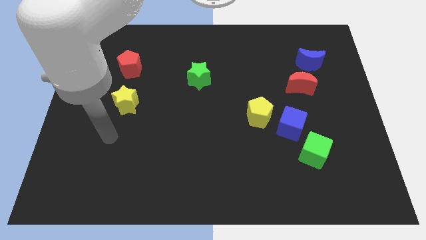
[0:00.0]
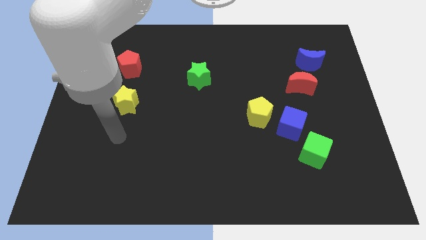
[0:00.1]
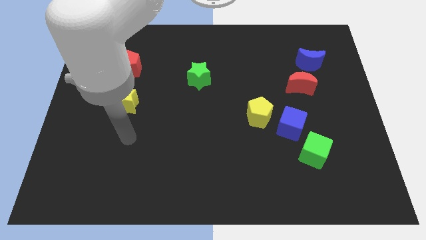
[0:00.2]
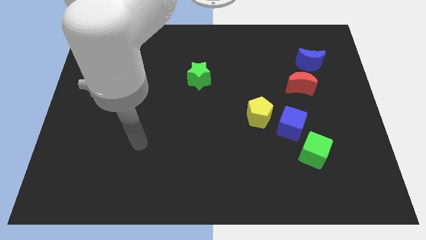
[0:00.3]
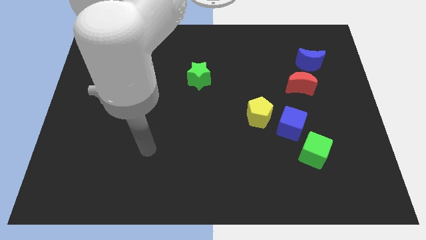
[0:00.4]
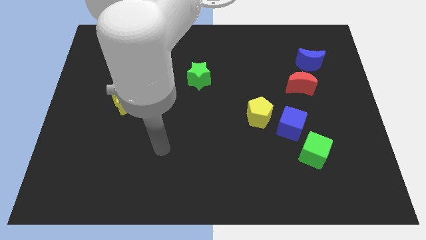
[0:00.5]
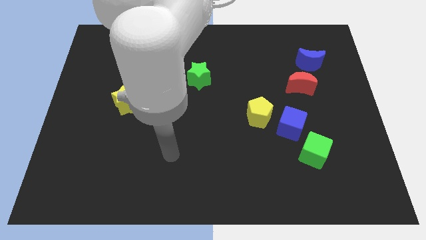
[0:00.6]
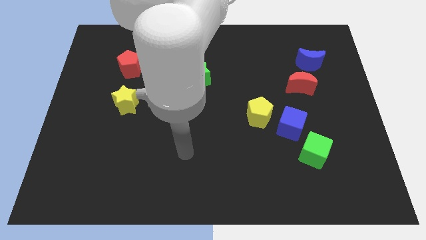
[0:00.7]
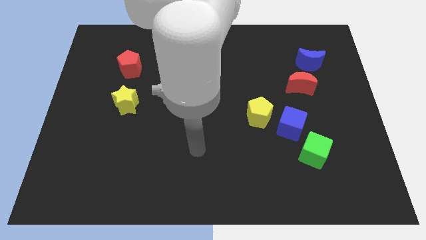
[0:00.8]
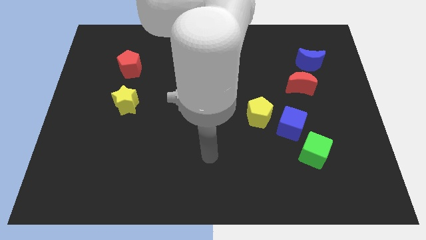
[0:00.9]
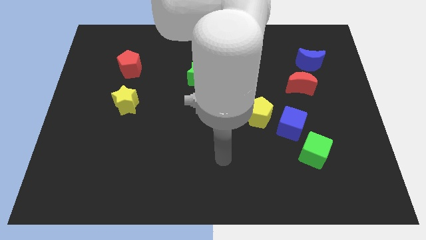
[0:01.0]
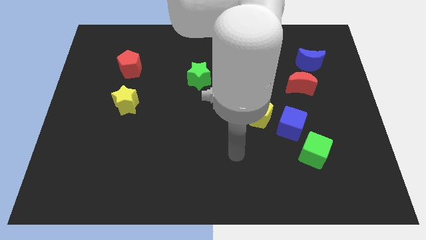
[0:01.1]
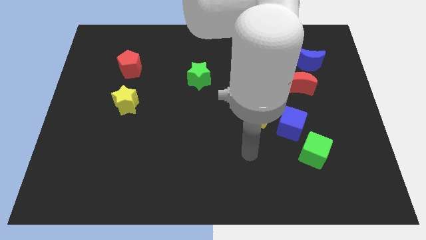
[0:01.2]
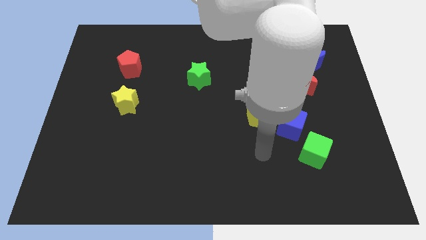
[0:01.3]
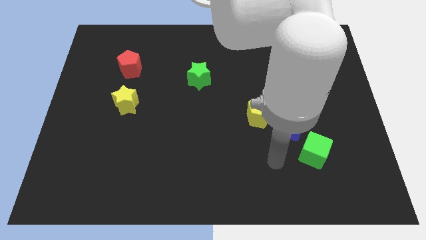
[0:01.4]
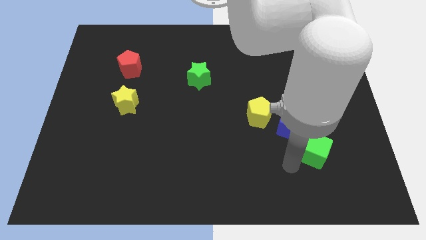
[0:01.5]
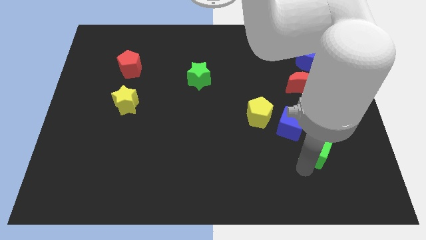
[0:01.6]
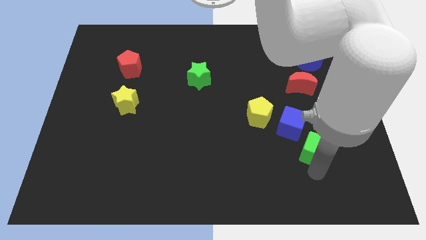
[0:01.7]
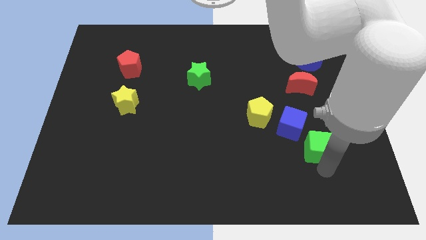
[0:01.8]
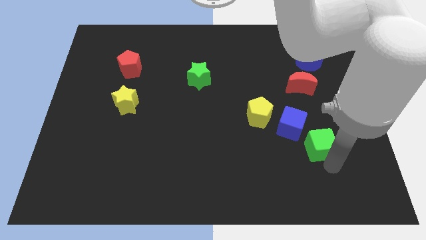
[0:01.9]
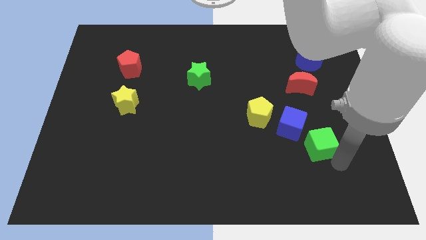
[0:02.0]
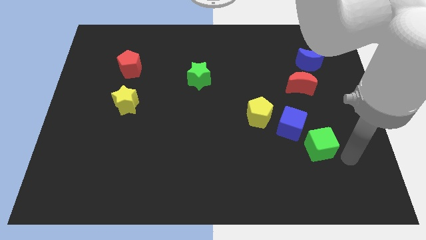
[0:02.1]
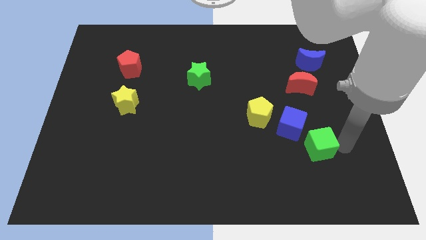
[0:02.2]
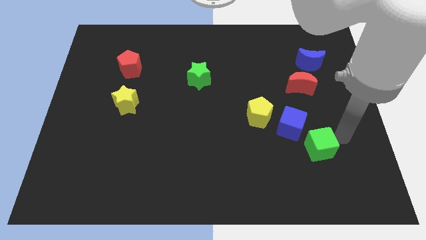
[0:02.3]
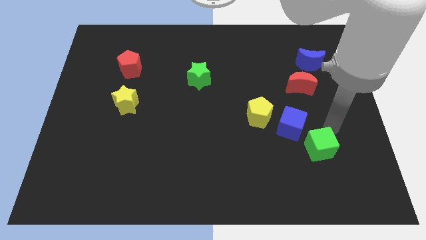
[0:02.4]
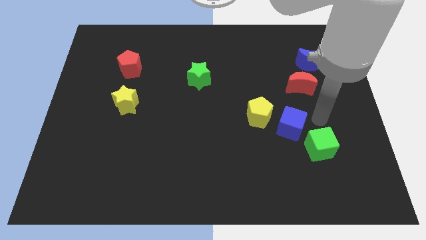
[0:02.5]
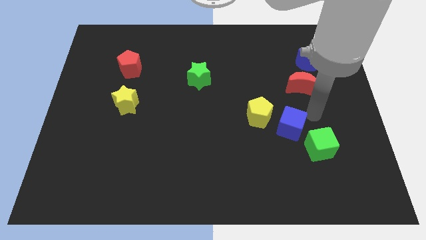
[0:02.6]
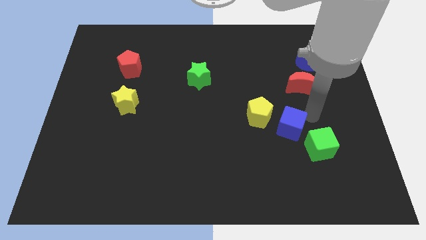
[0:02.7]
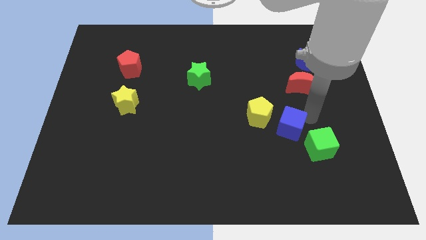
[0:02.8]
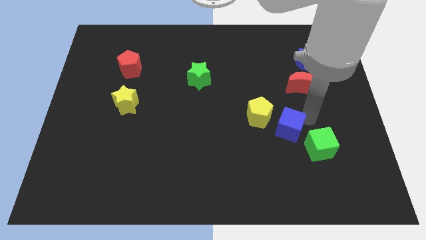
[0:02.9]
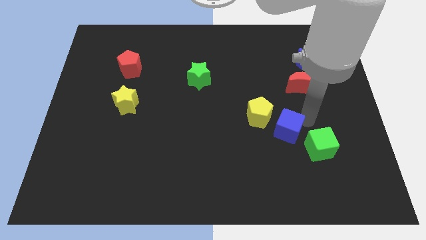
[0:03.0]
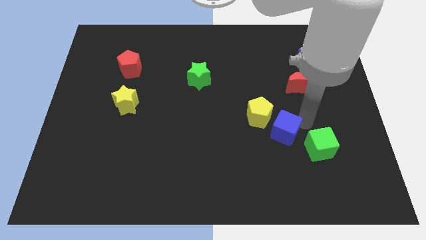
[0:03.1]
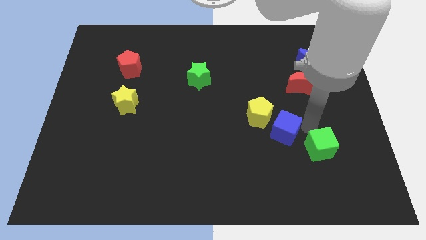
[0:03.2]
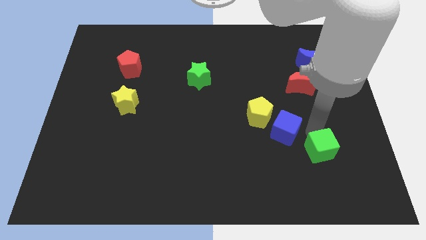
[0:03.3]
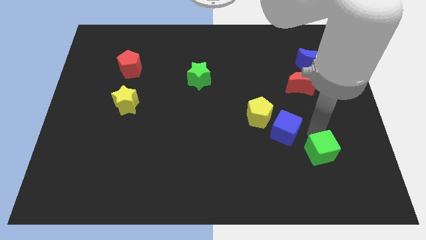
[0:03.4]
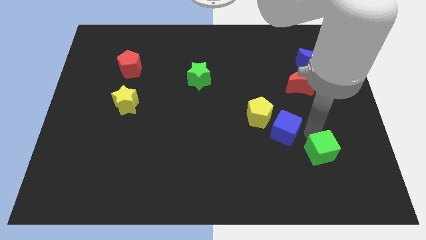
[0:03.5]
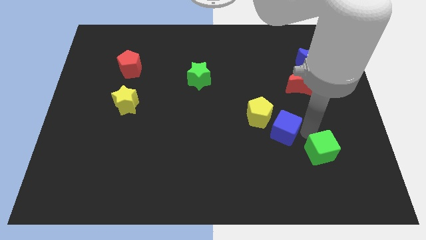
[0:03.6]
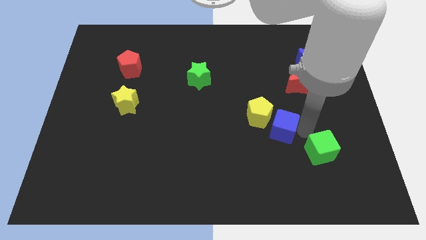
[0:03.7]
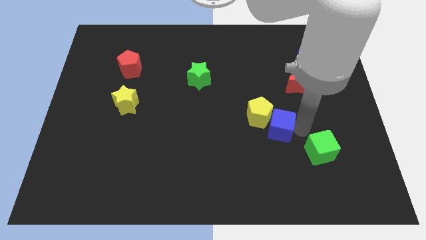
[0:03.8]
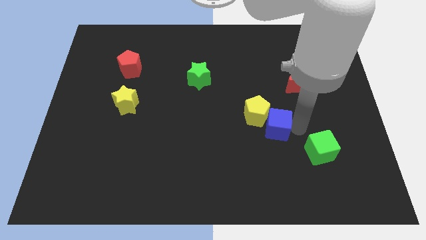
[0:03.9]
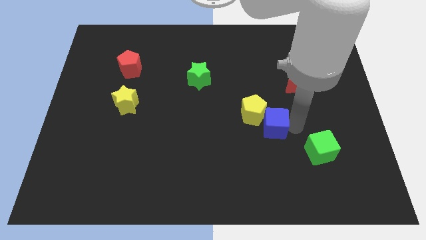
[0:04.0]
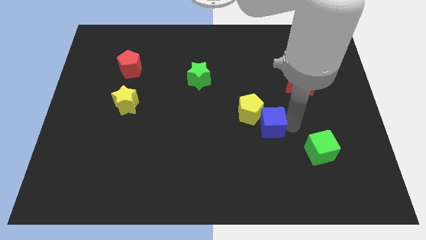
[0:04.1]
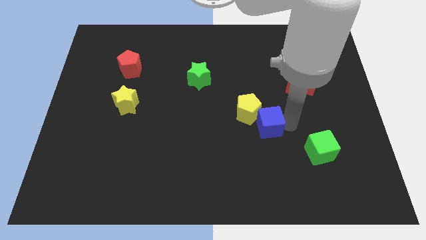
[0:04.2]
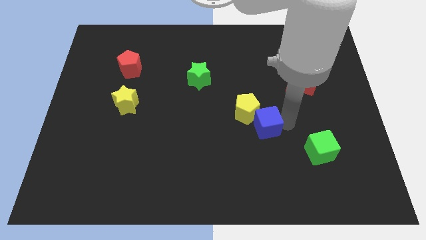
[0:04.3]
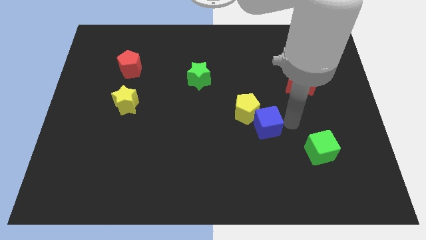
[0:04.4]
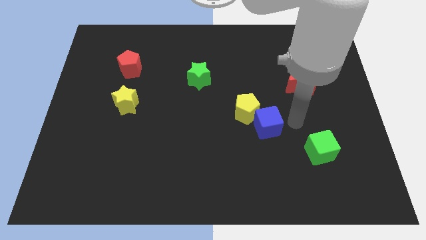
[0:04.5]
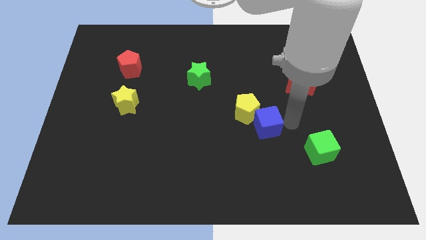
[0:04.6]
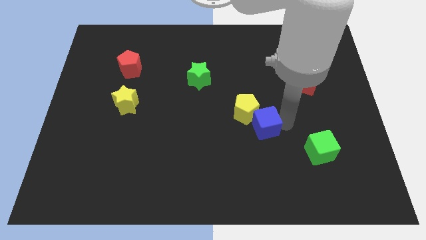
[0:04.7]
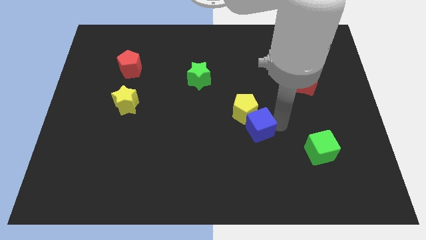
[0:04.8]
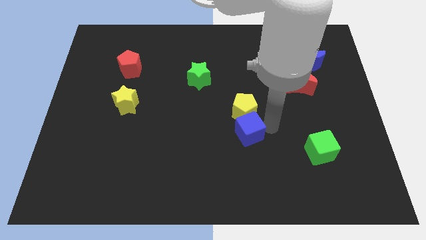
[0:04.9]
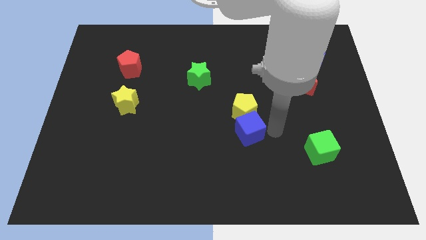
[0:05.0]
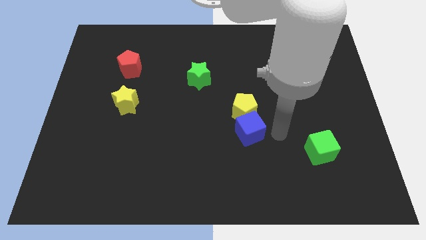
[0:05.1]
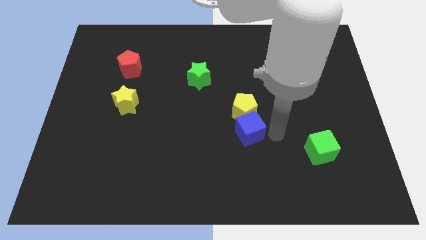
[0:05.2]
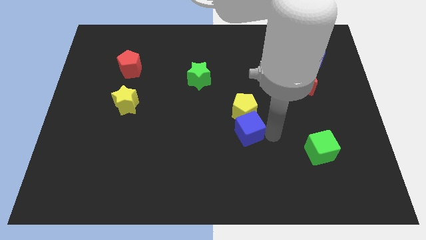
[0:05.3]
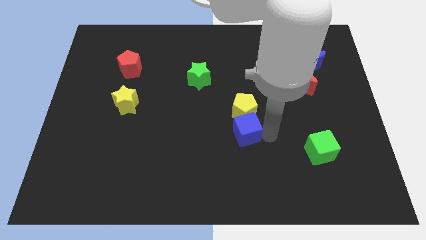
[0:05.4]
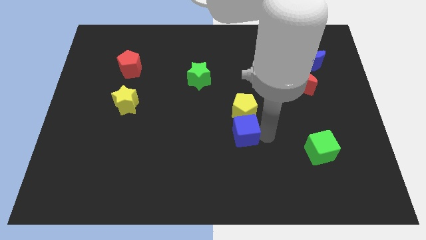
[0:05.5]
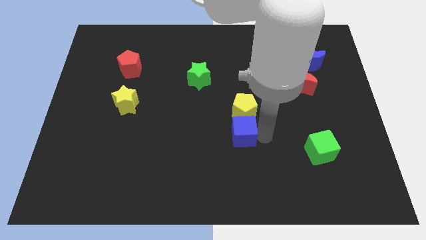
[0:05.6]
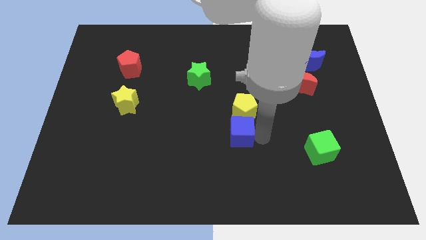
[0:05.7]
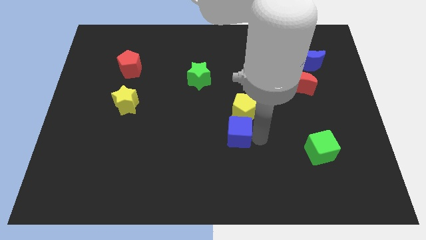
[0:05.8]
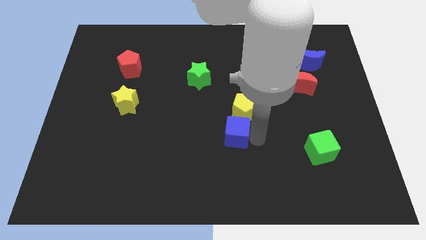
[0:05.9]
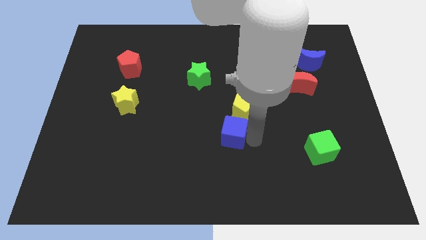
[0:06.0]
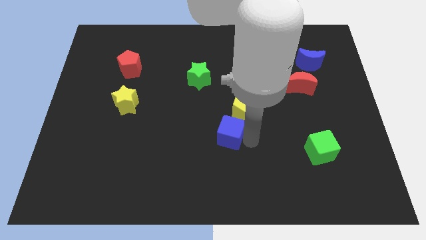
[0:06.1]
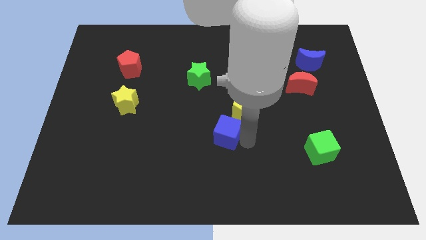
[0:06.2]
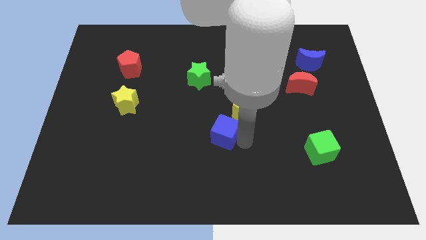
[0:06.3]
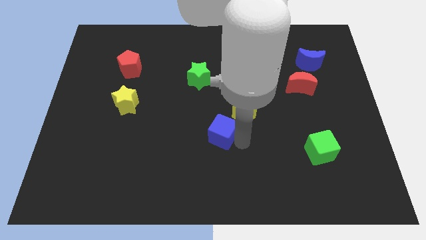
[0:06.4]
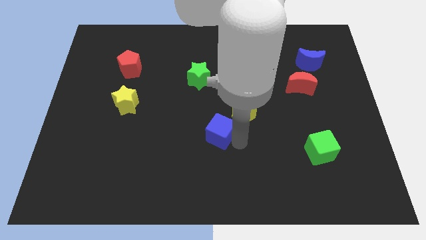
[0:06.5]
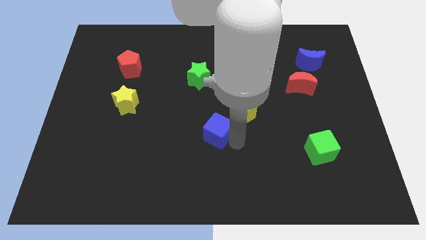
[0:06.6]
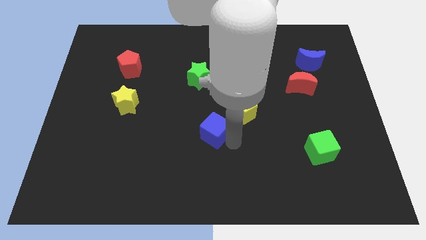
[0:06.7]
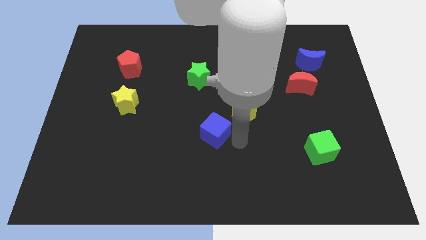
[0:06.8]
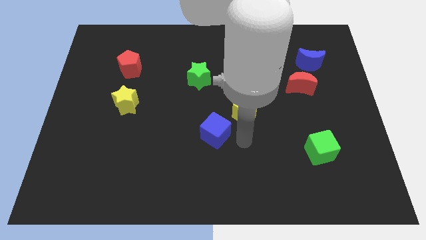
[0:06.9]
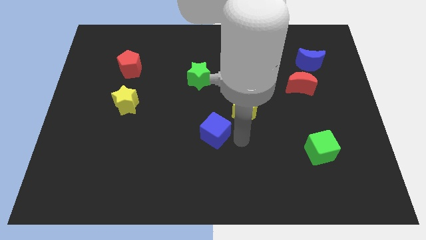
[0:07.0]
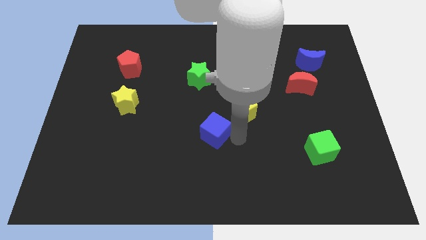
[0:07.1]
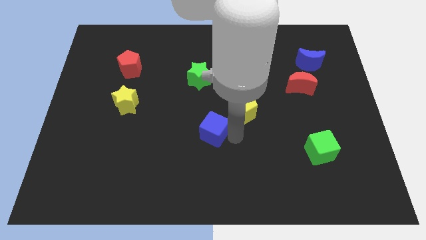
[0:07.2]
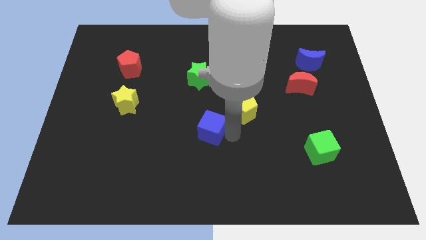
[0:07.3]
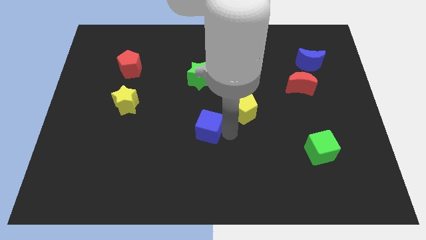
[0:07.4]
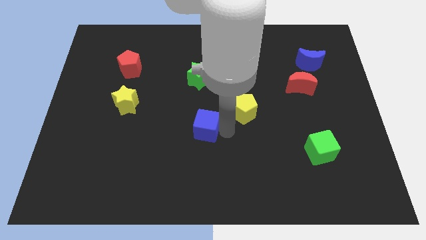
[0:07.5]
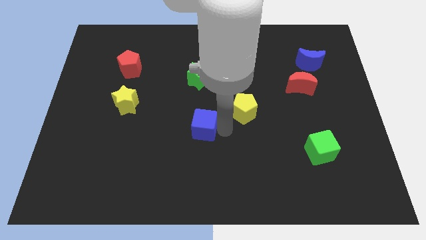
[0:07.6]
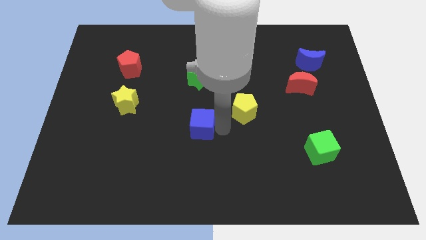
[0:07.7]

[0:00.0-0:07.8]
push the blue cube left
